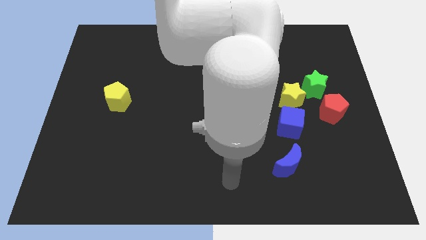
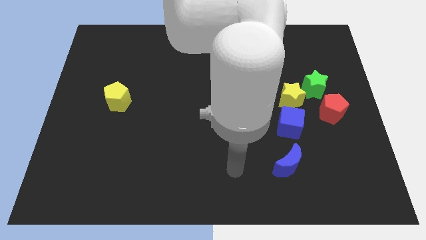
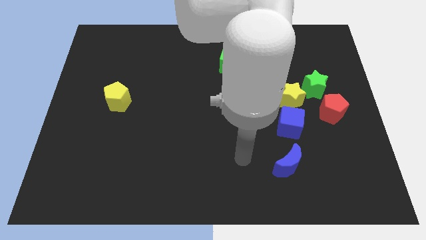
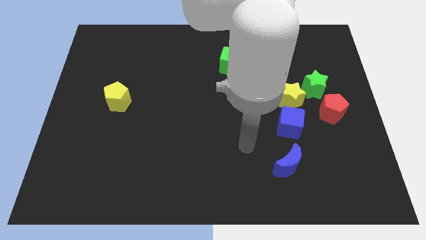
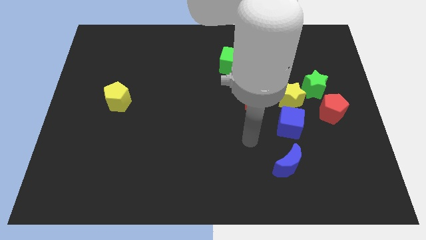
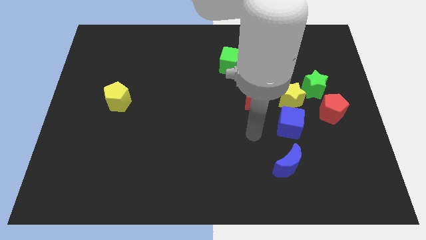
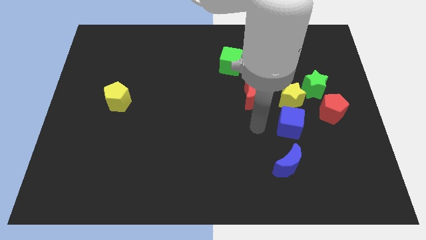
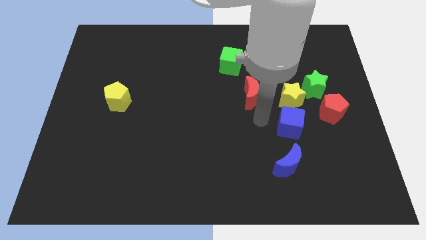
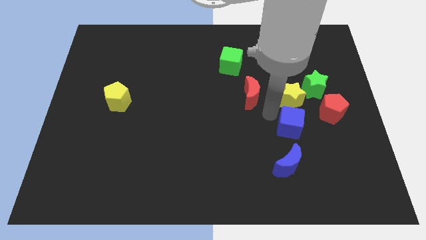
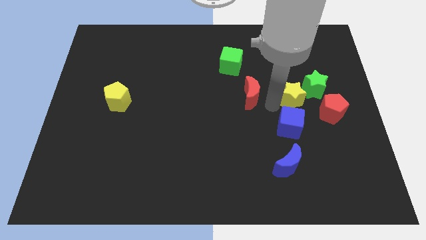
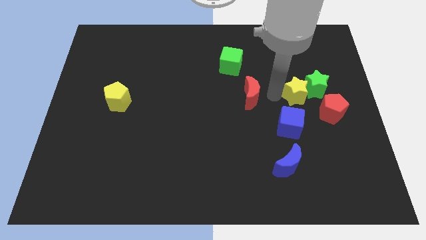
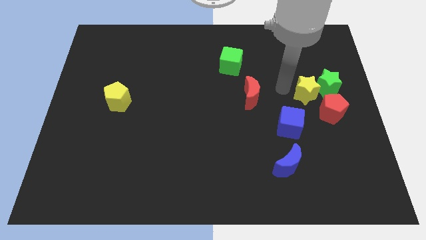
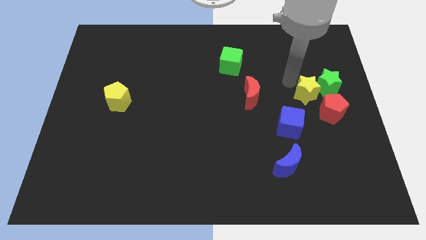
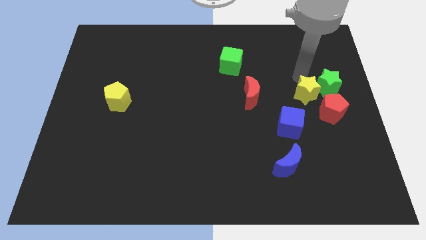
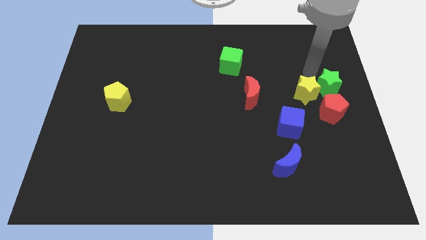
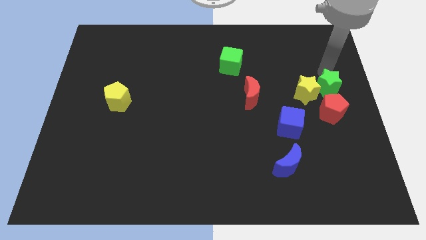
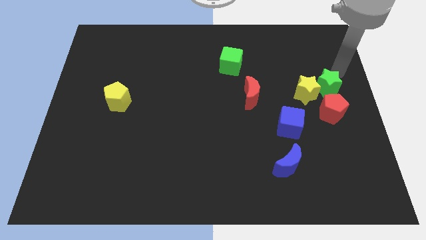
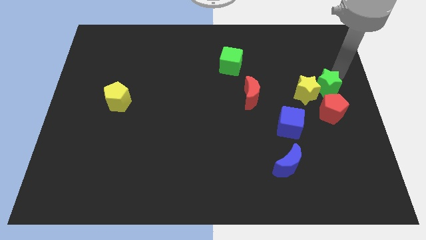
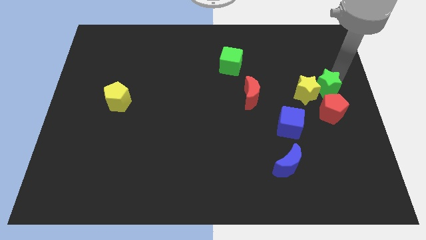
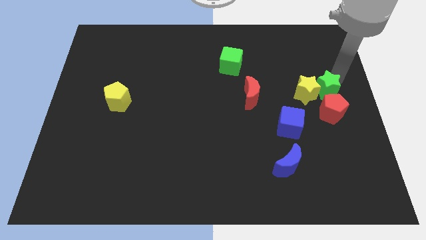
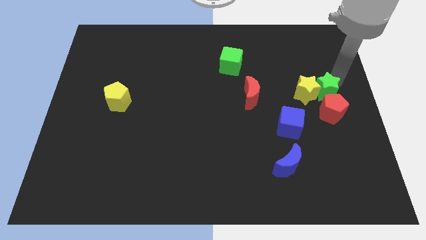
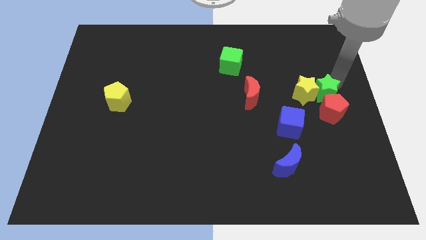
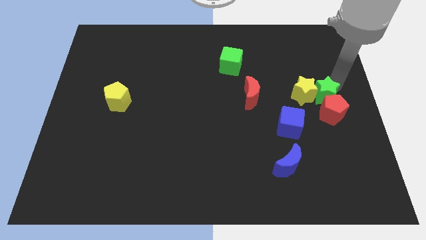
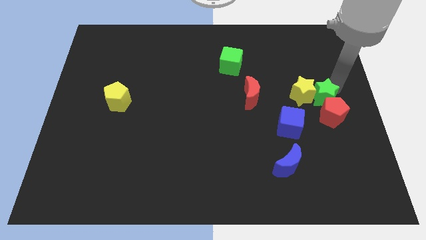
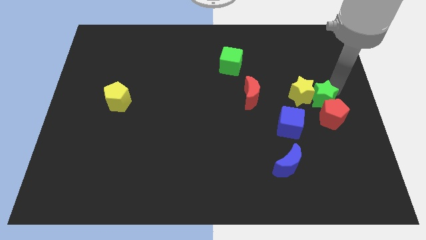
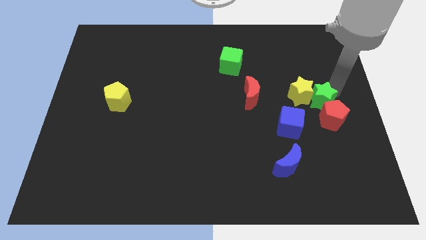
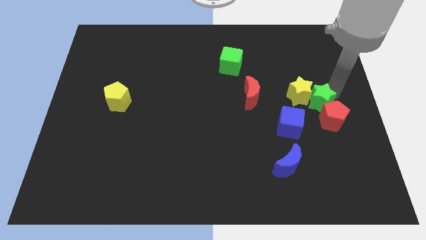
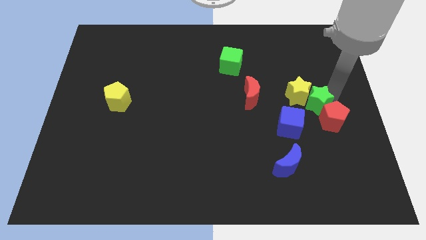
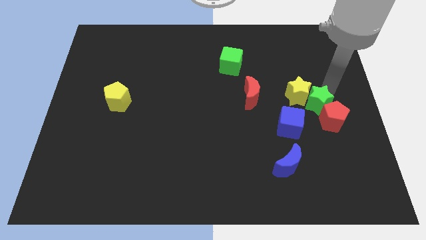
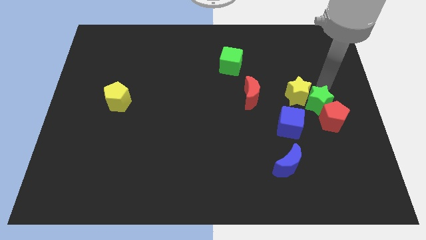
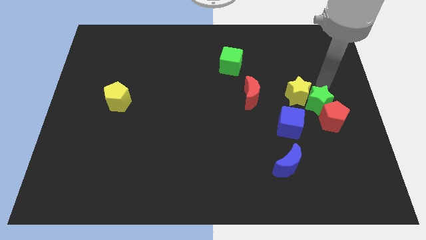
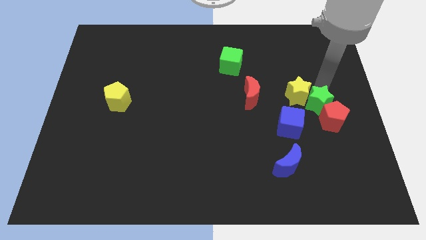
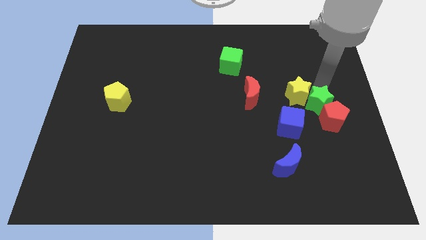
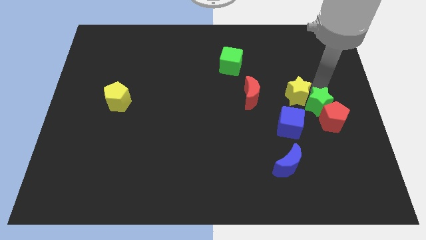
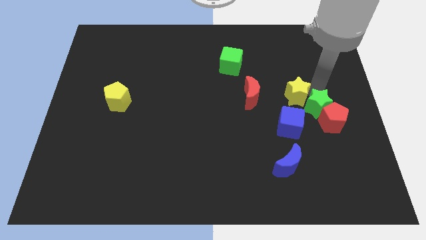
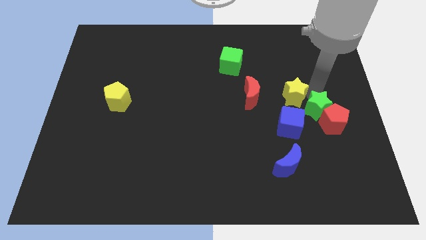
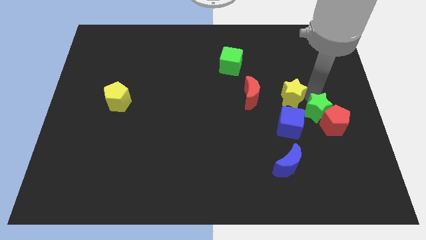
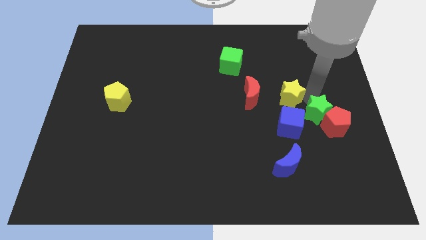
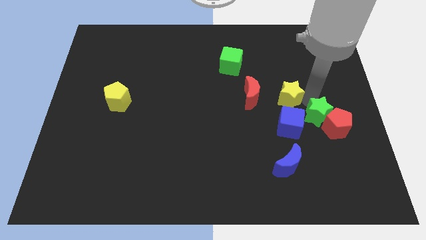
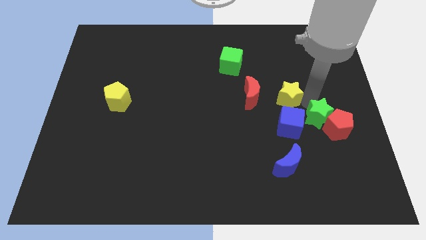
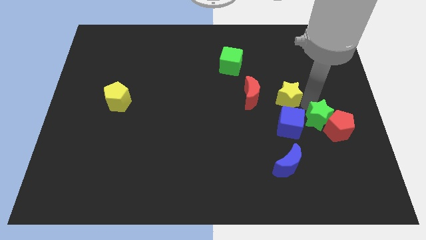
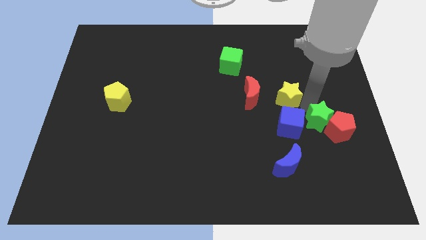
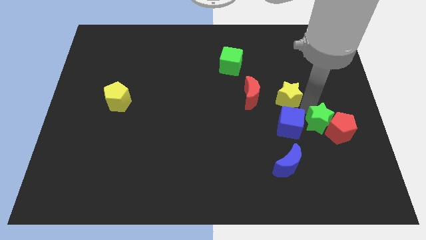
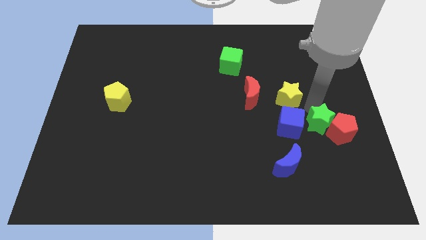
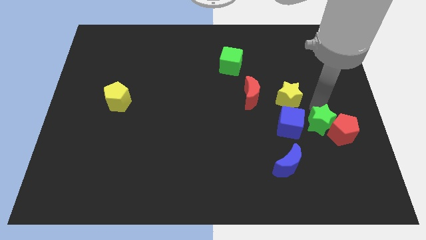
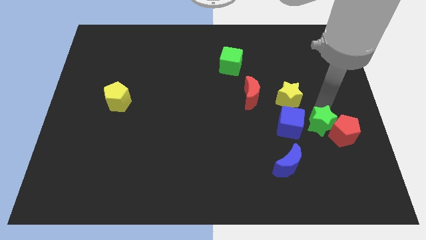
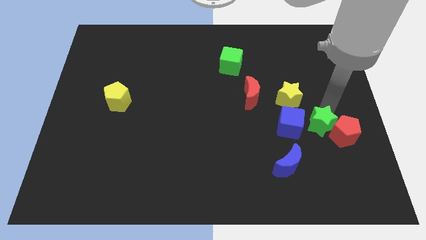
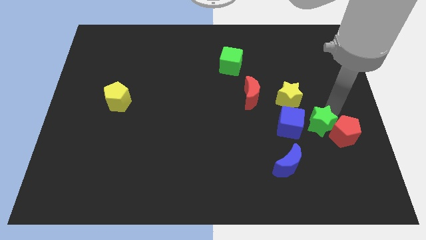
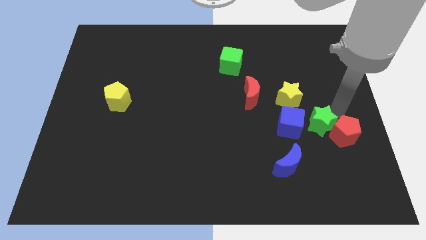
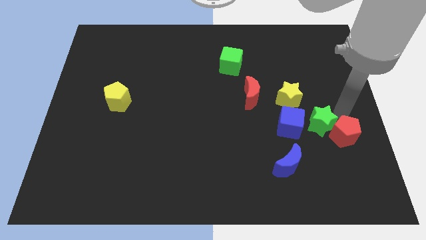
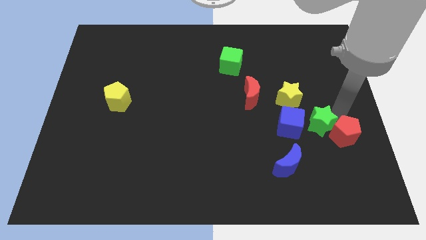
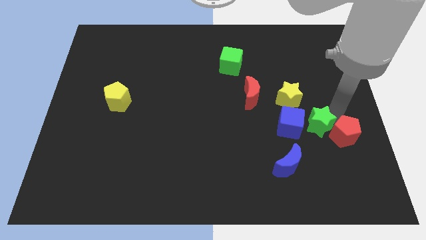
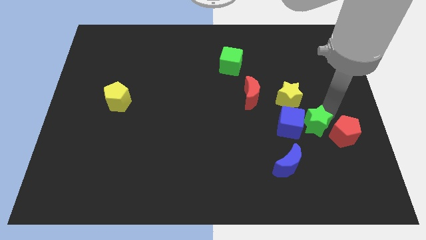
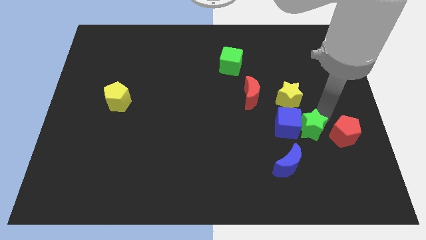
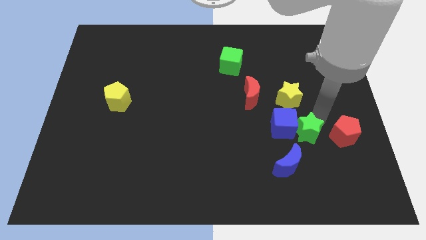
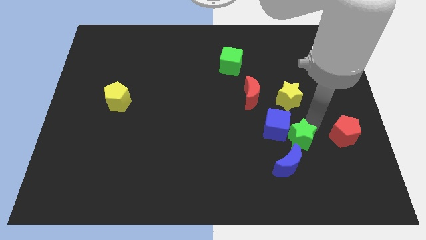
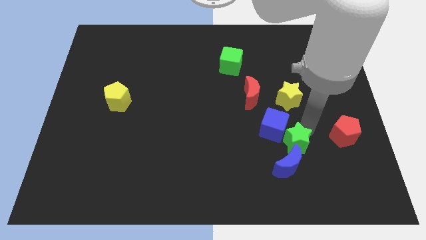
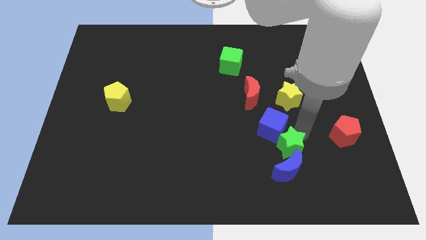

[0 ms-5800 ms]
move the green star next to the blue moon

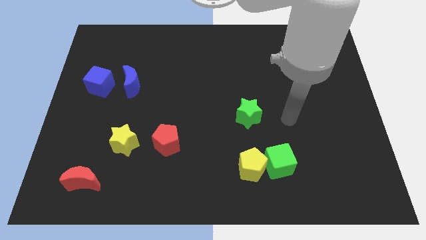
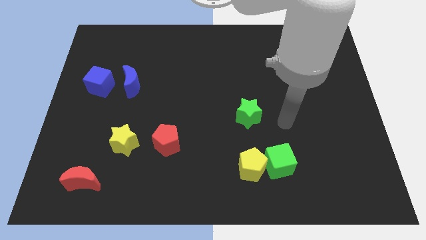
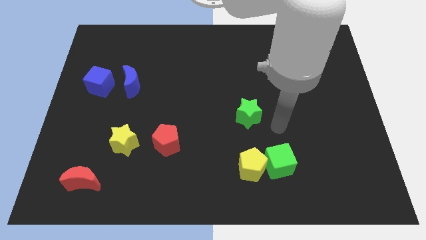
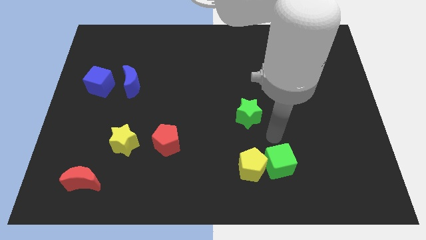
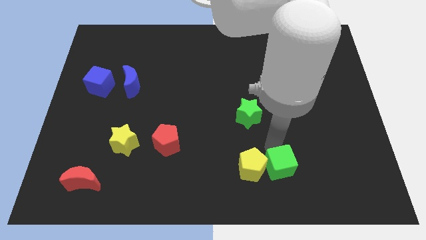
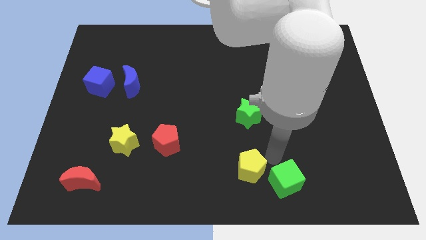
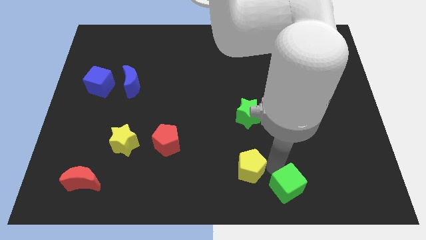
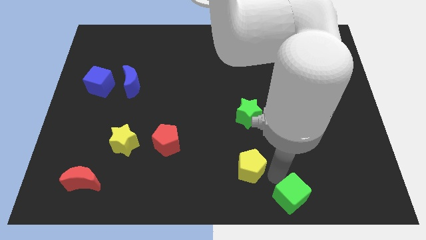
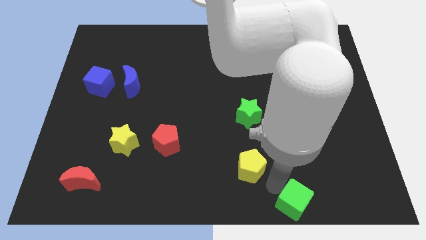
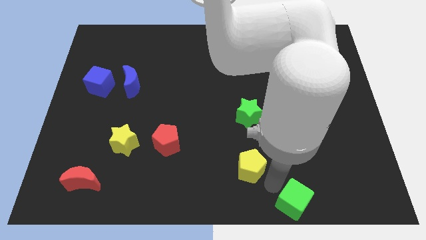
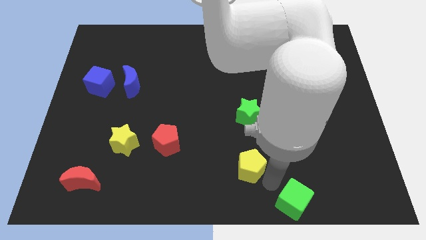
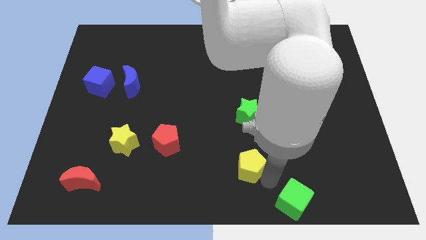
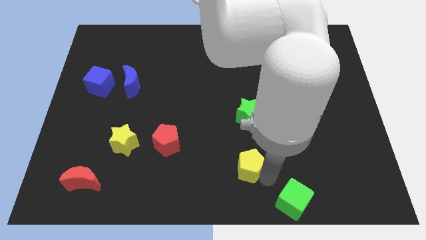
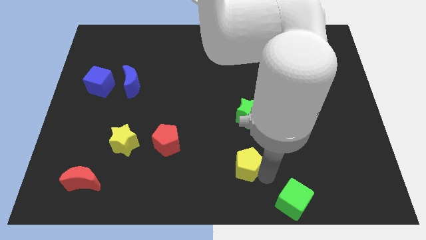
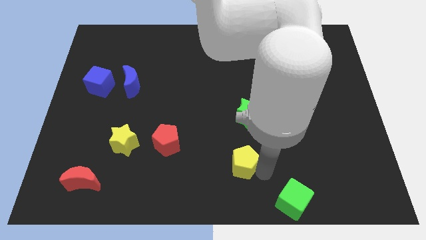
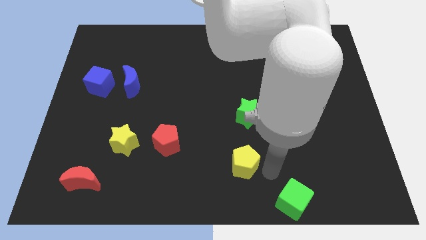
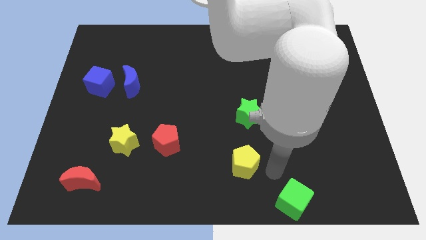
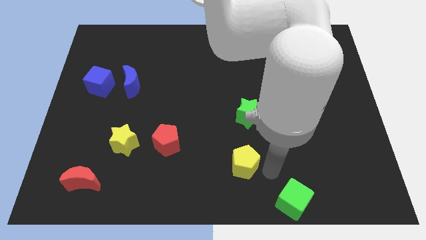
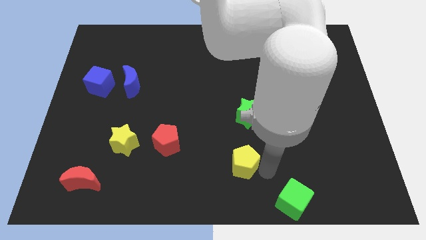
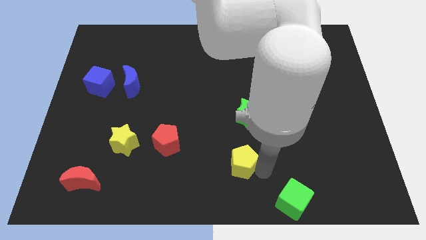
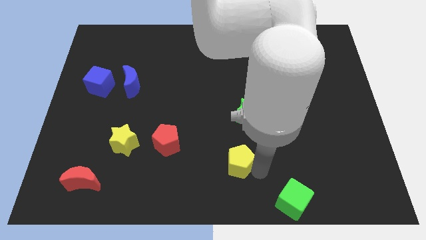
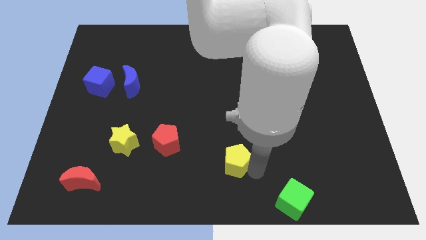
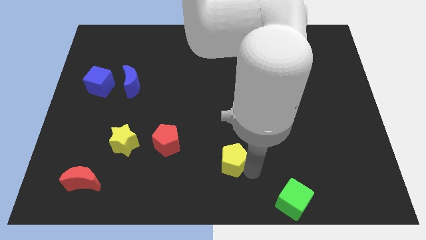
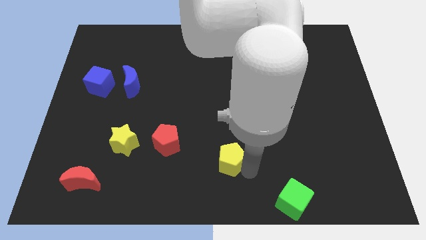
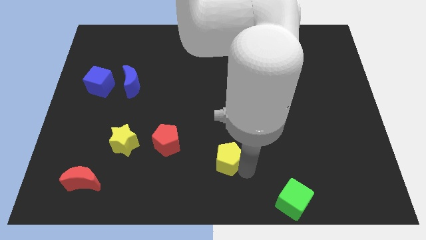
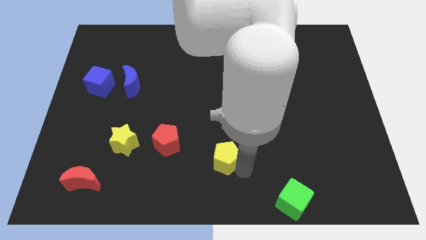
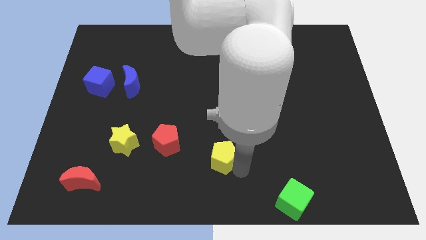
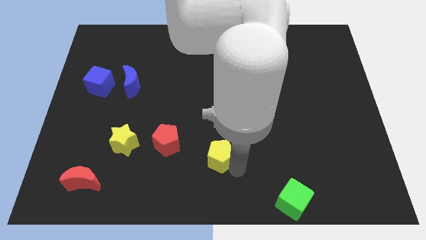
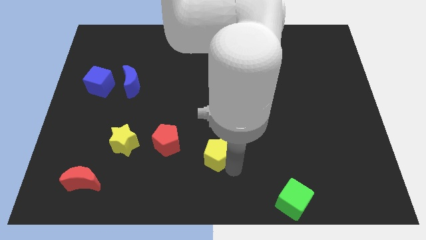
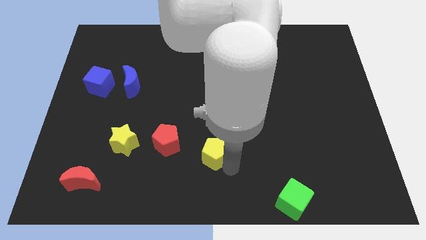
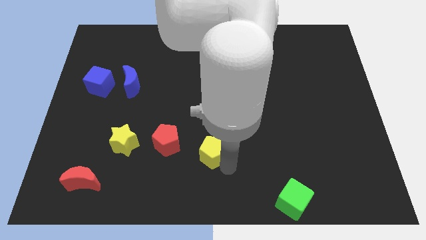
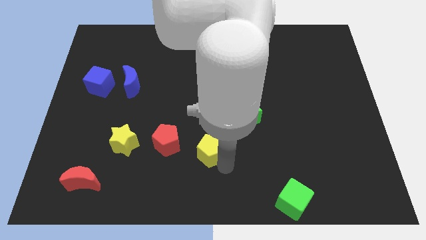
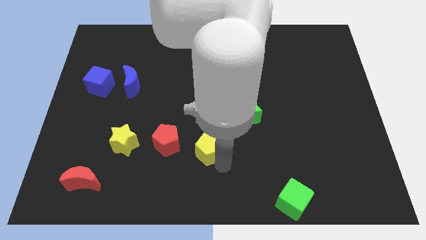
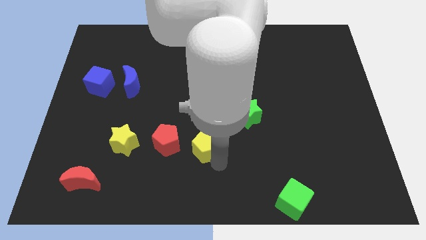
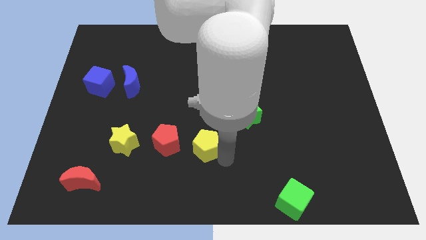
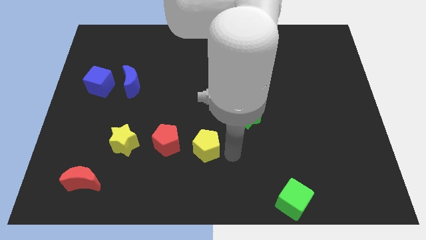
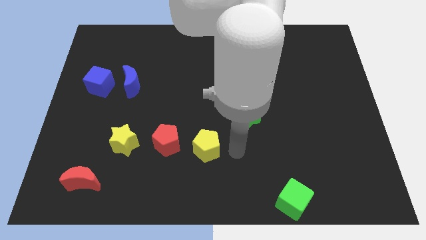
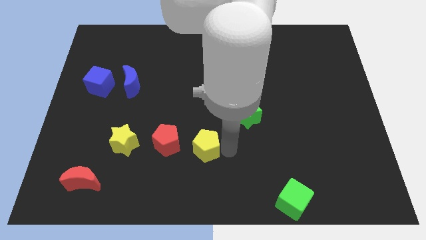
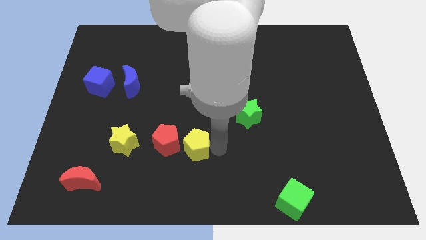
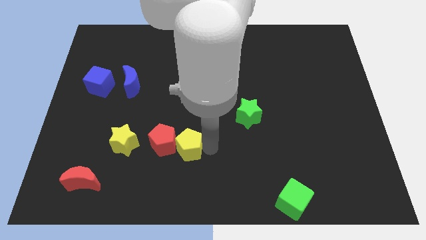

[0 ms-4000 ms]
move the yellow pentagon towards the red pentagon
